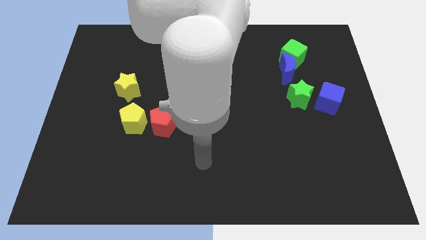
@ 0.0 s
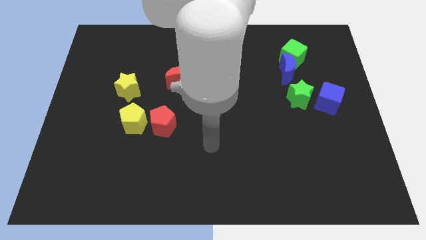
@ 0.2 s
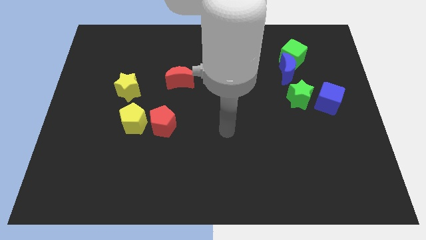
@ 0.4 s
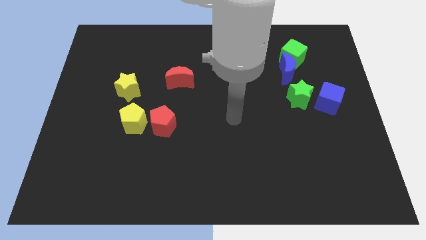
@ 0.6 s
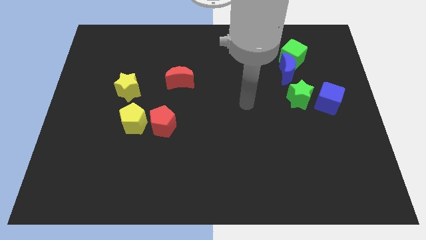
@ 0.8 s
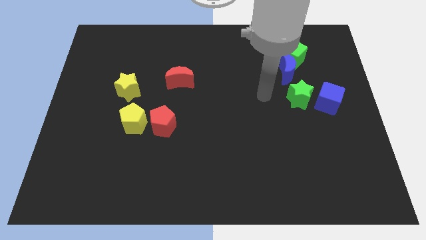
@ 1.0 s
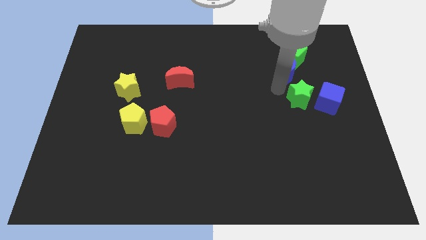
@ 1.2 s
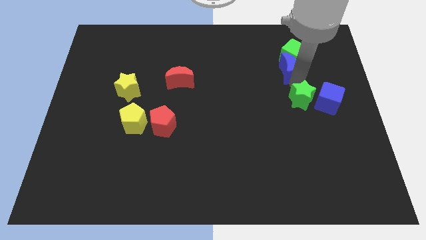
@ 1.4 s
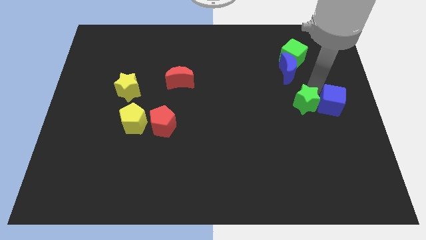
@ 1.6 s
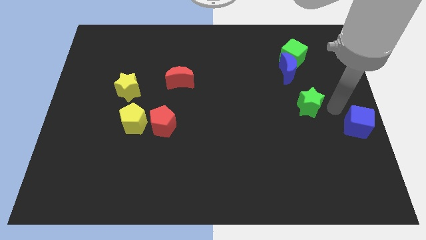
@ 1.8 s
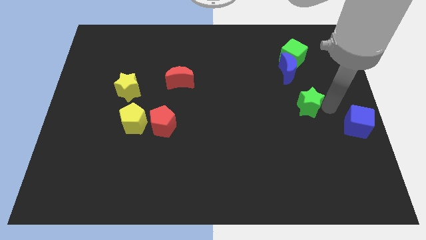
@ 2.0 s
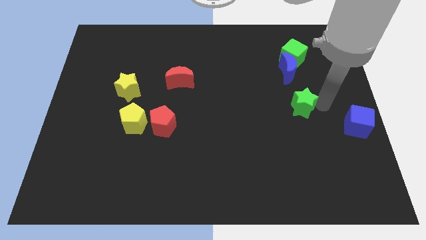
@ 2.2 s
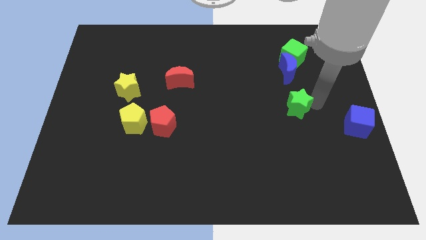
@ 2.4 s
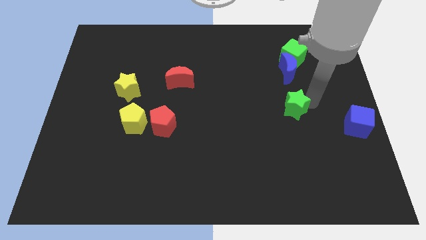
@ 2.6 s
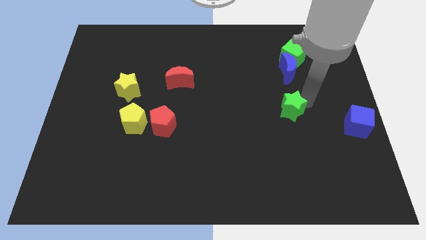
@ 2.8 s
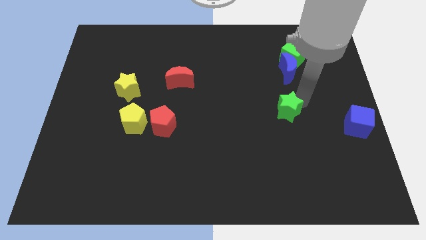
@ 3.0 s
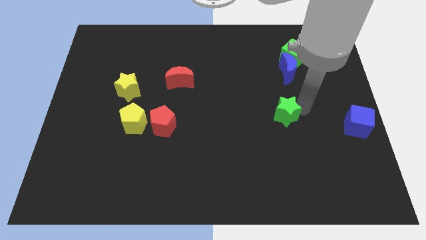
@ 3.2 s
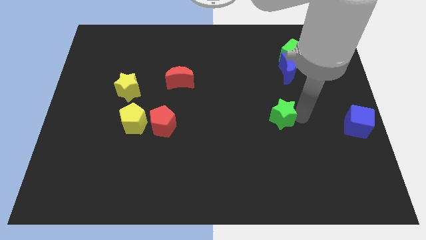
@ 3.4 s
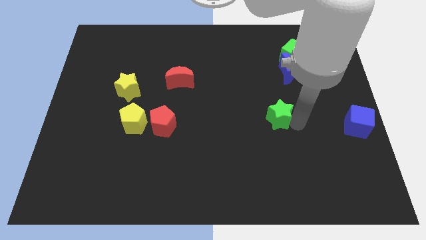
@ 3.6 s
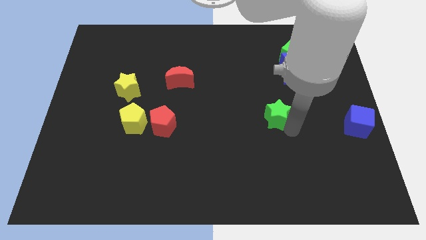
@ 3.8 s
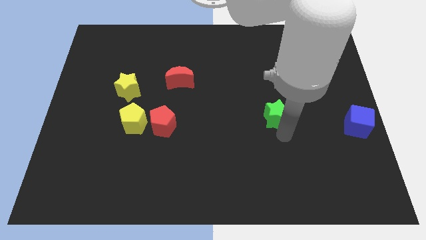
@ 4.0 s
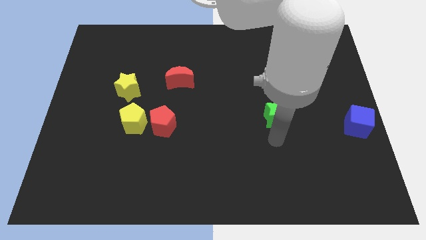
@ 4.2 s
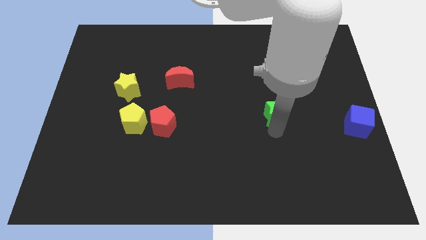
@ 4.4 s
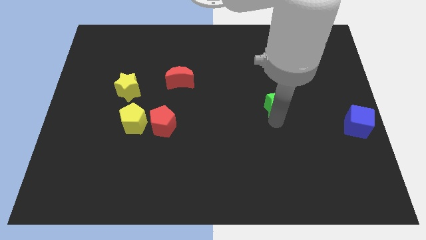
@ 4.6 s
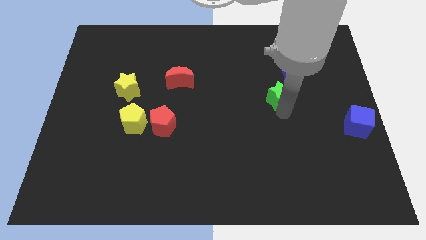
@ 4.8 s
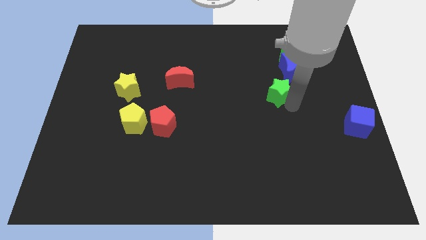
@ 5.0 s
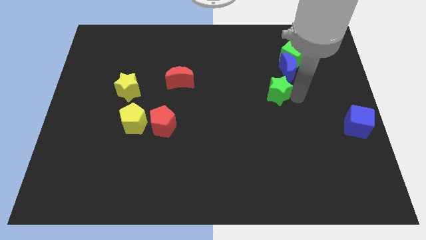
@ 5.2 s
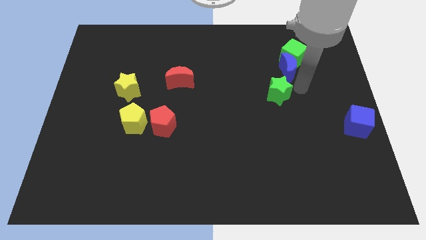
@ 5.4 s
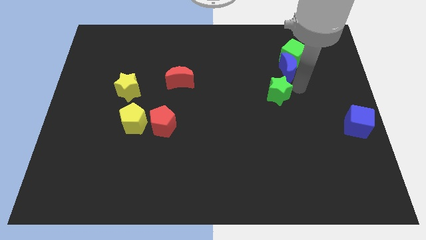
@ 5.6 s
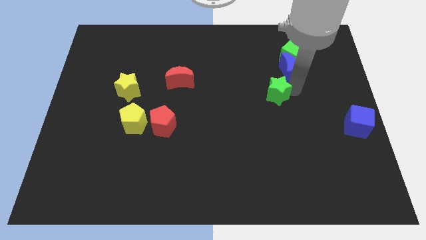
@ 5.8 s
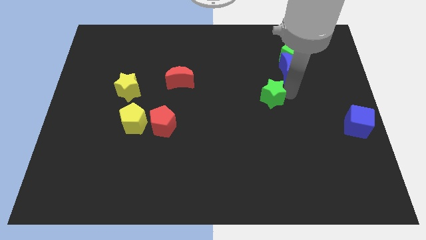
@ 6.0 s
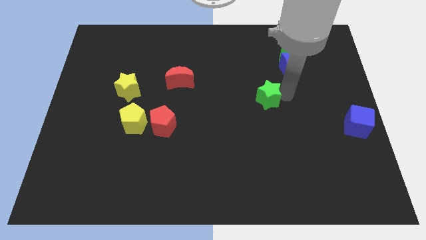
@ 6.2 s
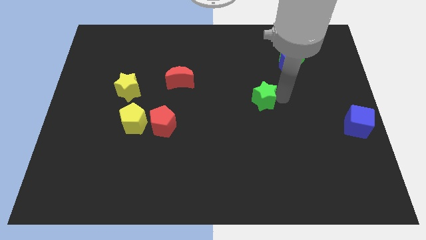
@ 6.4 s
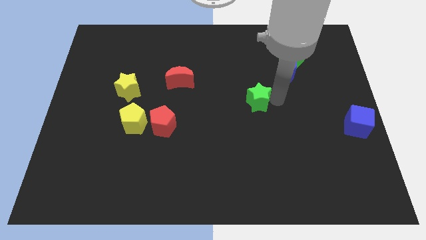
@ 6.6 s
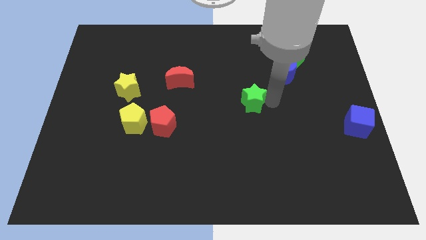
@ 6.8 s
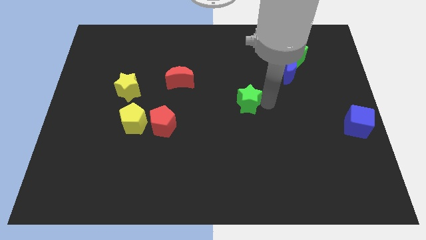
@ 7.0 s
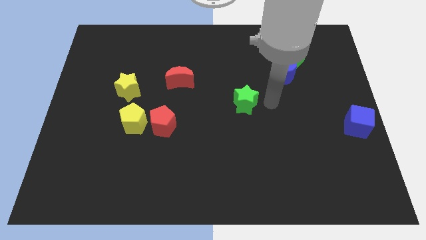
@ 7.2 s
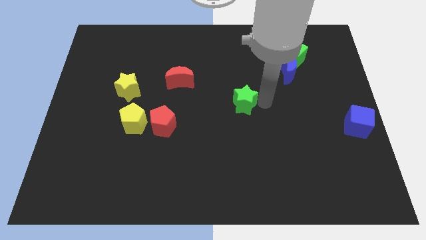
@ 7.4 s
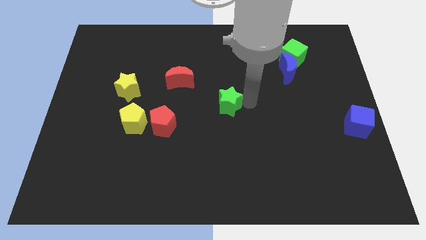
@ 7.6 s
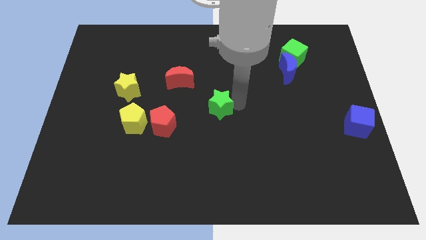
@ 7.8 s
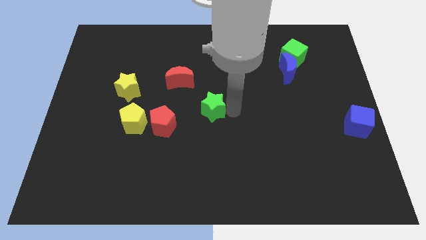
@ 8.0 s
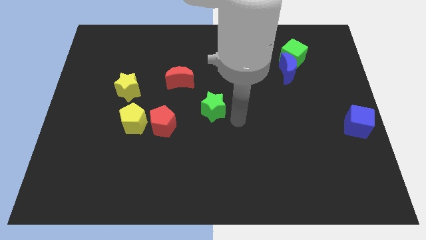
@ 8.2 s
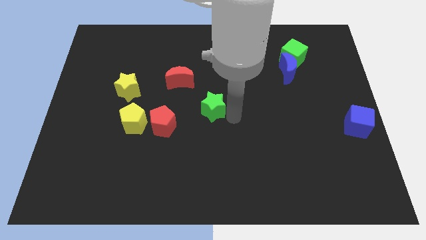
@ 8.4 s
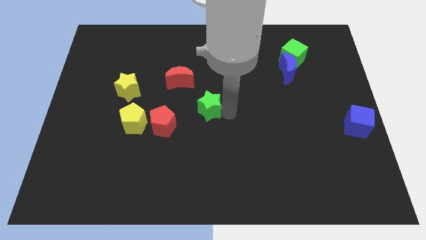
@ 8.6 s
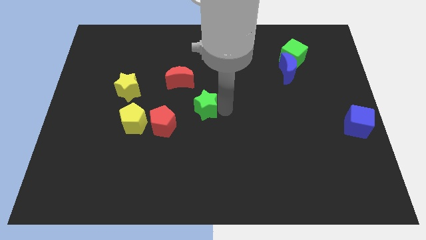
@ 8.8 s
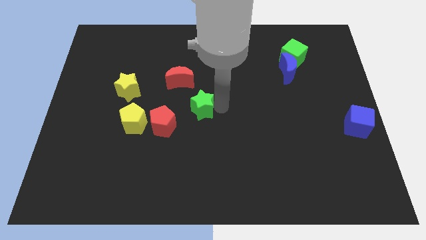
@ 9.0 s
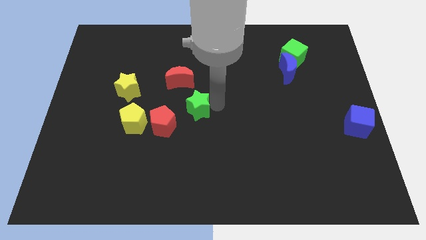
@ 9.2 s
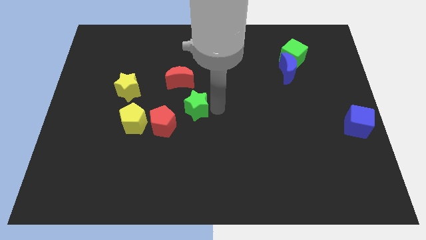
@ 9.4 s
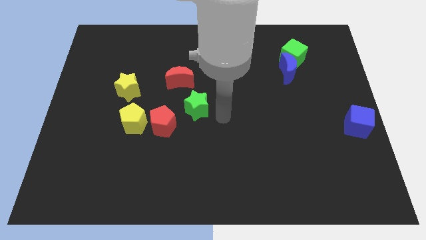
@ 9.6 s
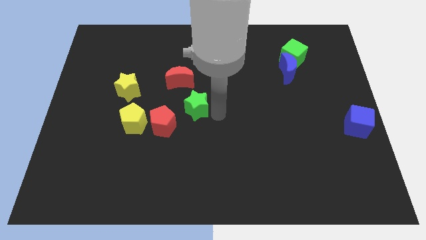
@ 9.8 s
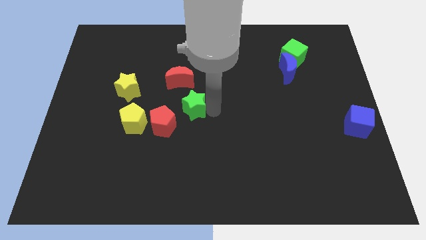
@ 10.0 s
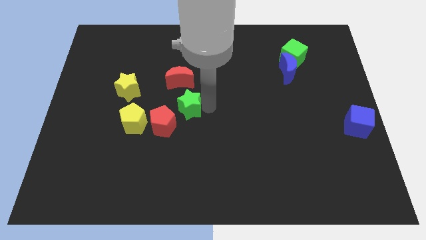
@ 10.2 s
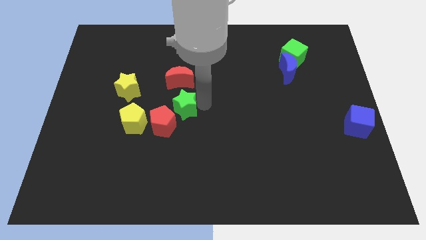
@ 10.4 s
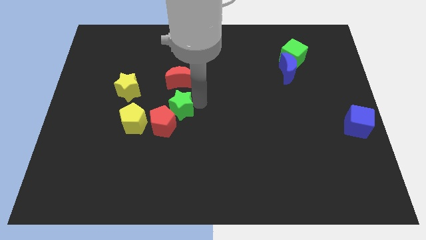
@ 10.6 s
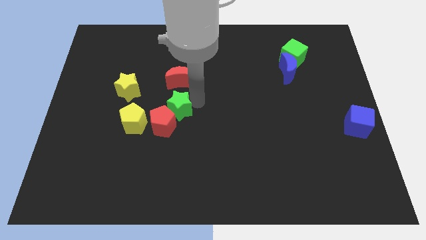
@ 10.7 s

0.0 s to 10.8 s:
push the green star diagonally up and to the right of the yellow pentagon

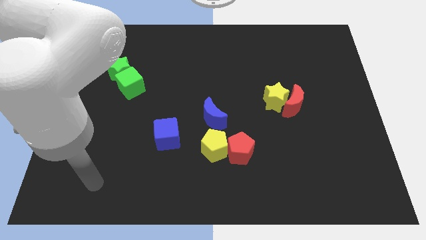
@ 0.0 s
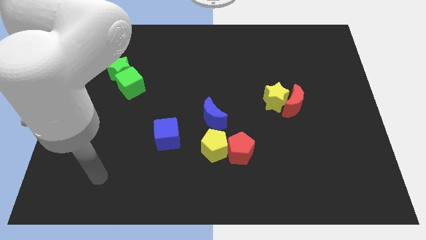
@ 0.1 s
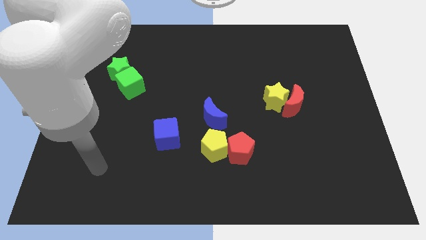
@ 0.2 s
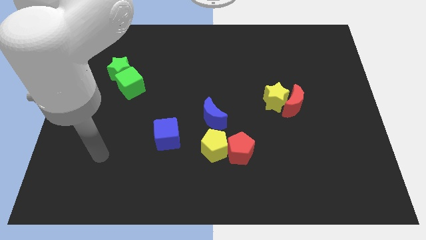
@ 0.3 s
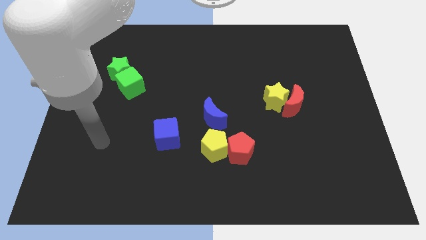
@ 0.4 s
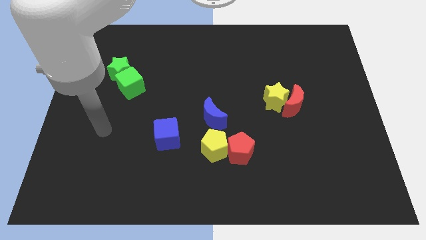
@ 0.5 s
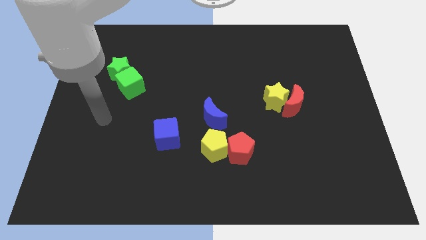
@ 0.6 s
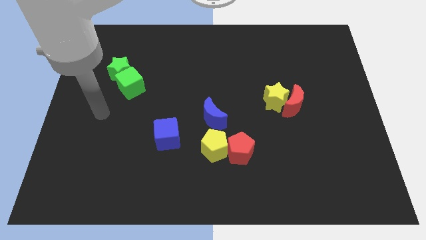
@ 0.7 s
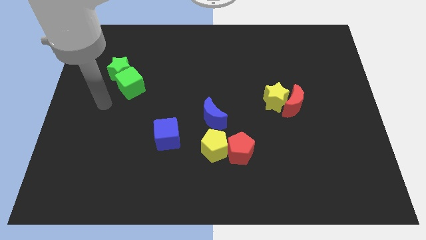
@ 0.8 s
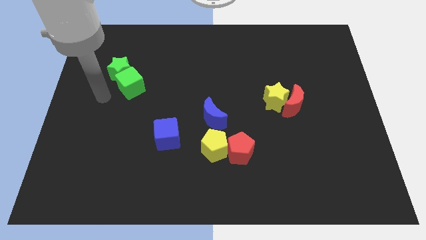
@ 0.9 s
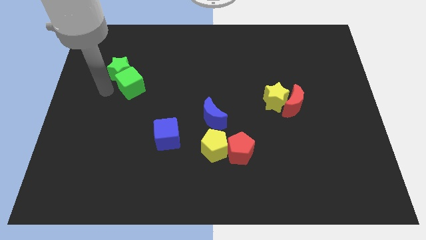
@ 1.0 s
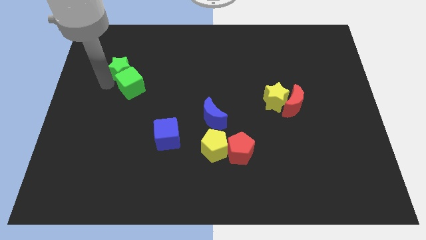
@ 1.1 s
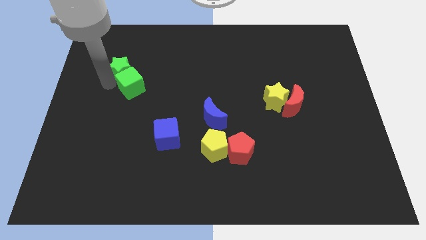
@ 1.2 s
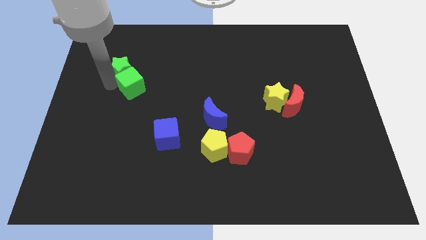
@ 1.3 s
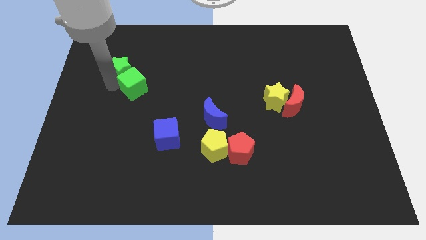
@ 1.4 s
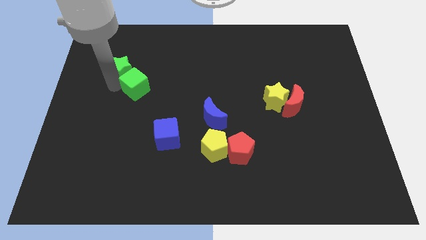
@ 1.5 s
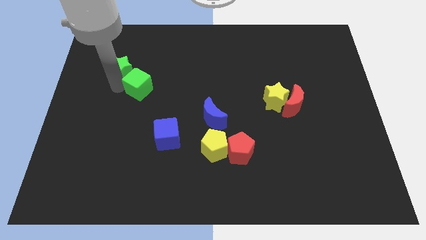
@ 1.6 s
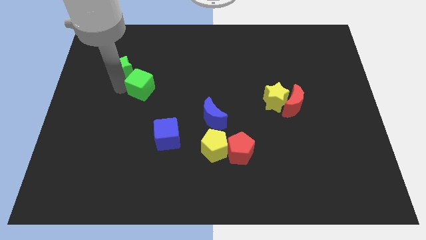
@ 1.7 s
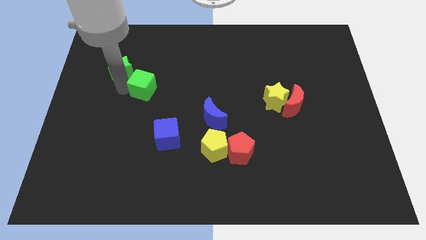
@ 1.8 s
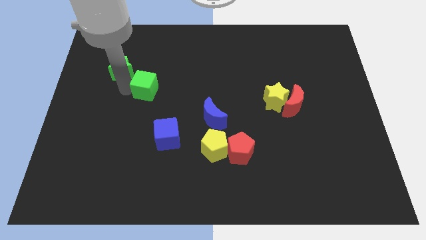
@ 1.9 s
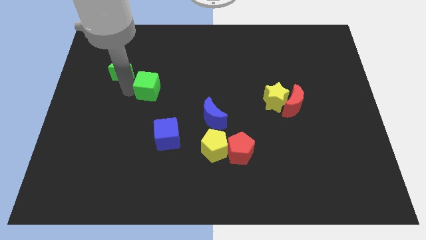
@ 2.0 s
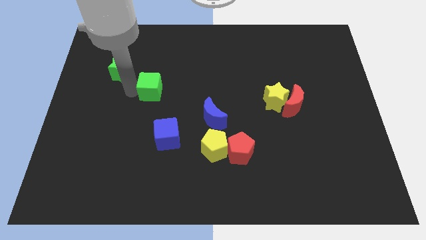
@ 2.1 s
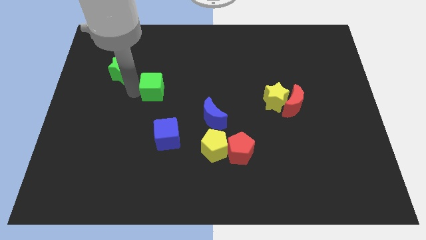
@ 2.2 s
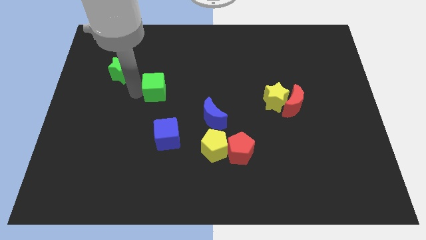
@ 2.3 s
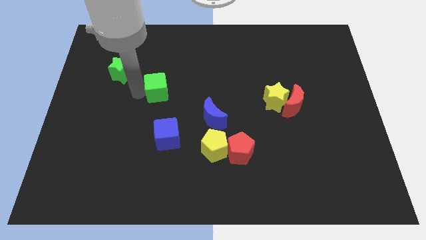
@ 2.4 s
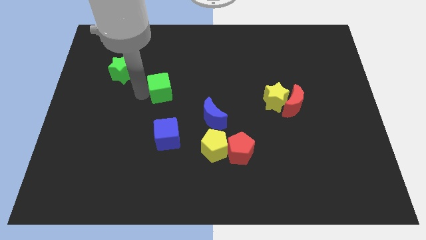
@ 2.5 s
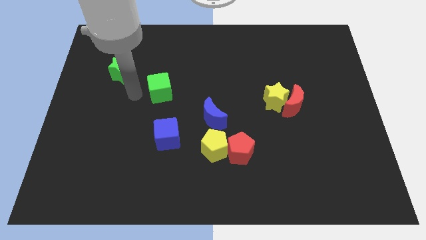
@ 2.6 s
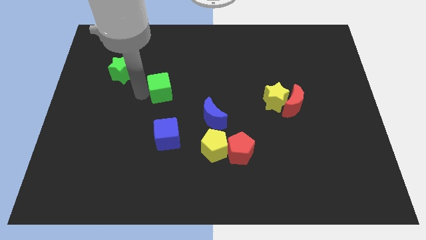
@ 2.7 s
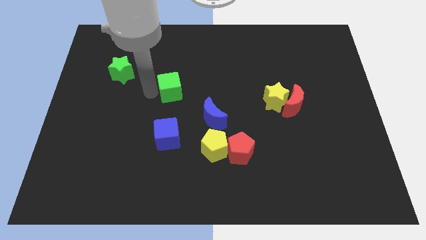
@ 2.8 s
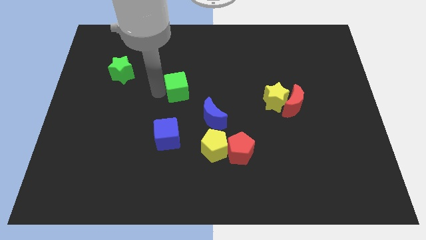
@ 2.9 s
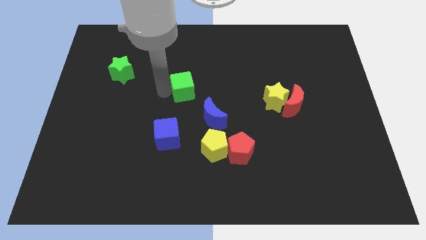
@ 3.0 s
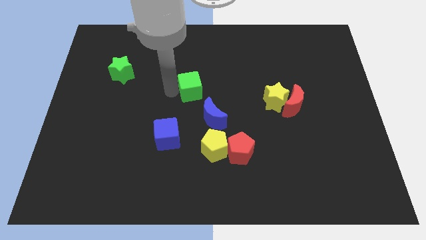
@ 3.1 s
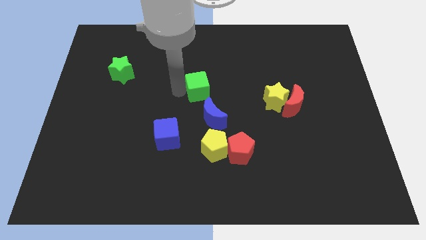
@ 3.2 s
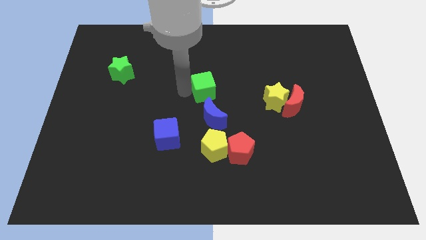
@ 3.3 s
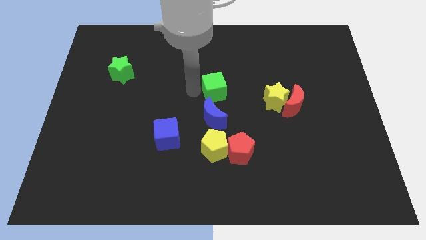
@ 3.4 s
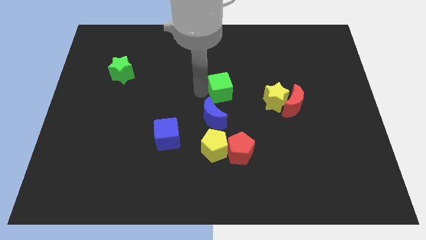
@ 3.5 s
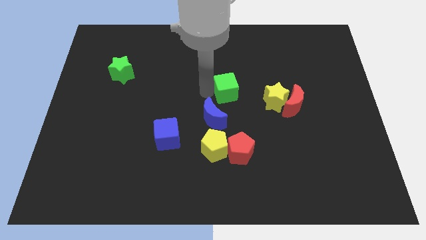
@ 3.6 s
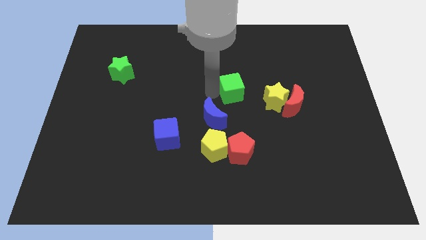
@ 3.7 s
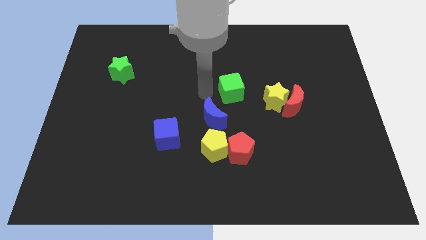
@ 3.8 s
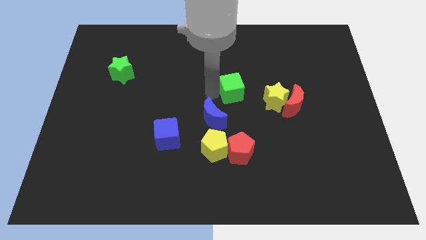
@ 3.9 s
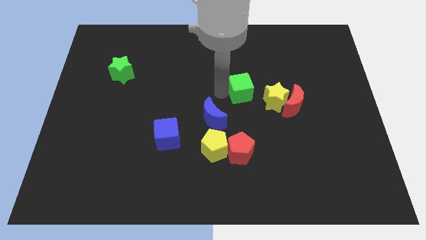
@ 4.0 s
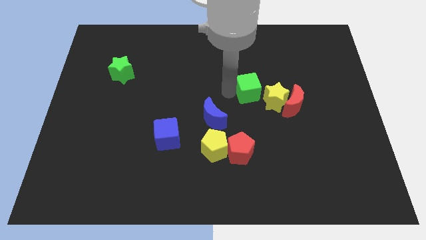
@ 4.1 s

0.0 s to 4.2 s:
slide the green cube to the top left side of the red moon
